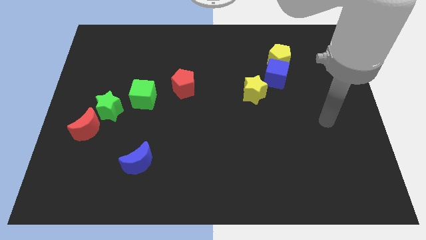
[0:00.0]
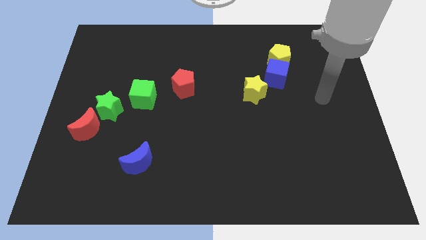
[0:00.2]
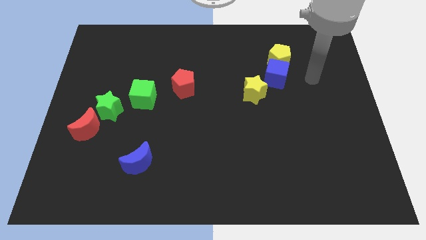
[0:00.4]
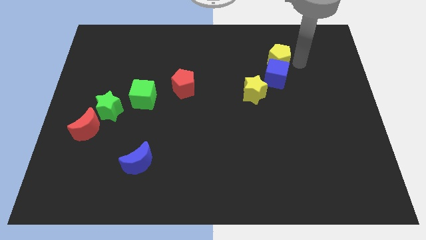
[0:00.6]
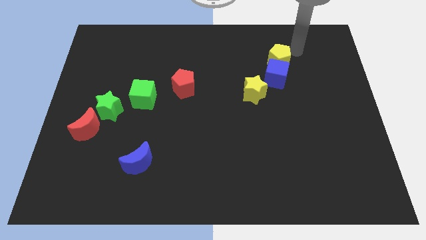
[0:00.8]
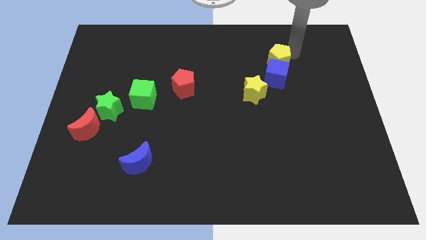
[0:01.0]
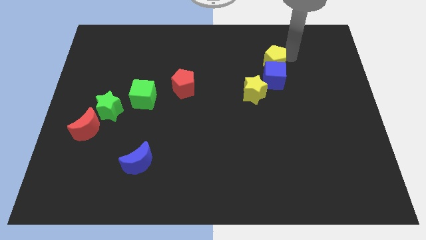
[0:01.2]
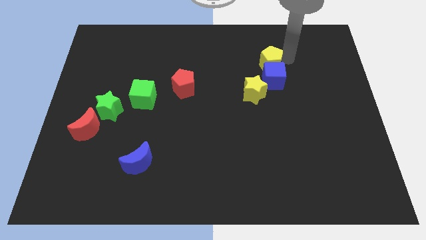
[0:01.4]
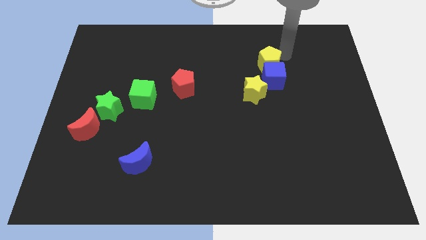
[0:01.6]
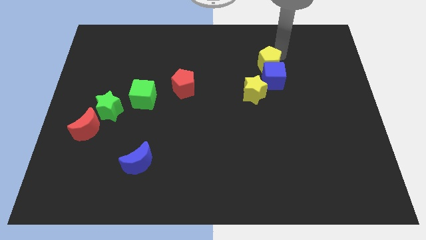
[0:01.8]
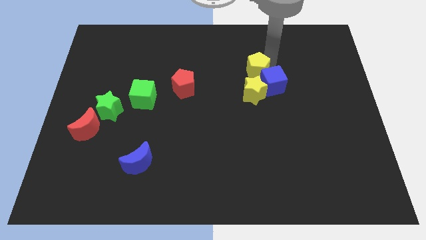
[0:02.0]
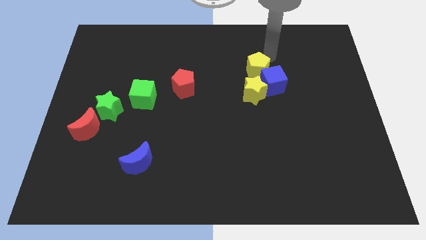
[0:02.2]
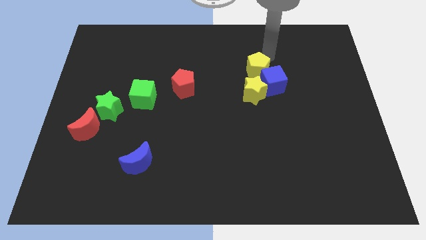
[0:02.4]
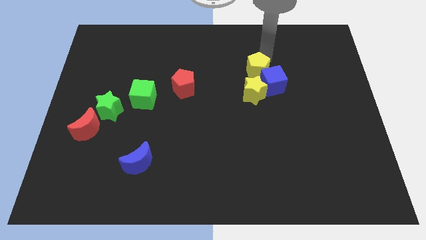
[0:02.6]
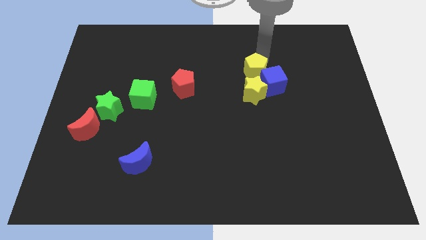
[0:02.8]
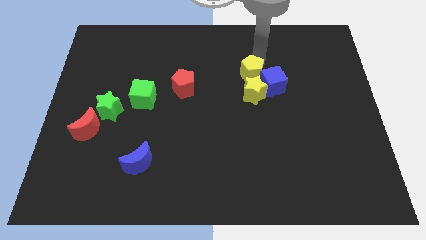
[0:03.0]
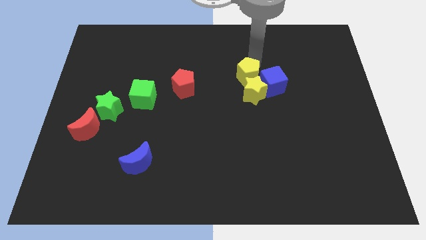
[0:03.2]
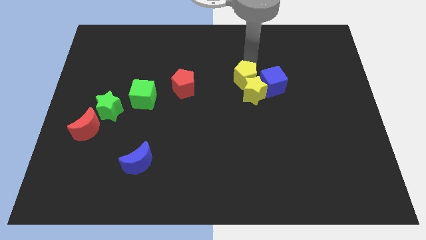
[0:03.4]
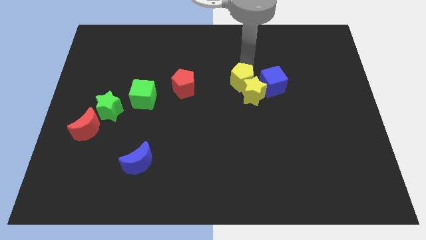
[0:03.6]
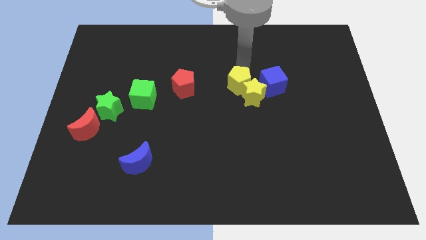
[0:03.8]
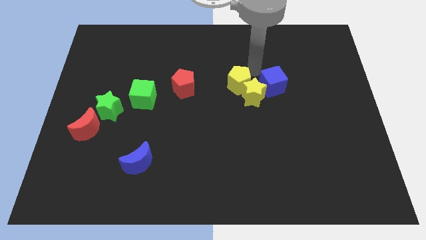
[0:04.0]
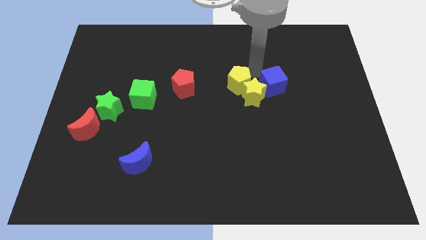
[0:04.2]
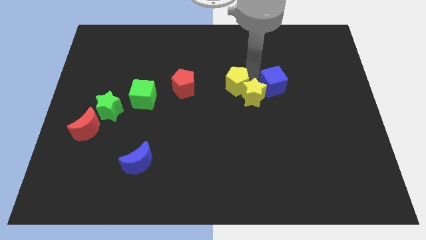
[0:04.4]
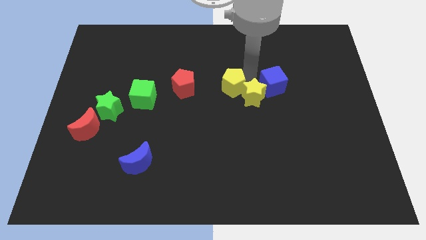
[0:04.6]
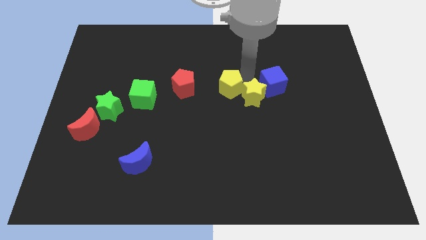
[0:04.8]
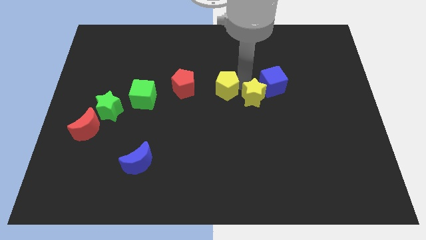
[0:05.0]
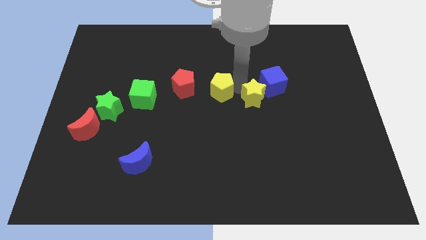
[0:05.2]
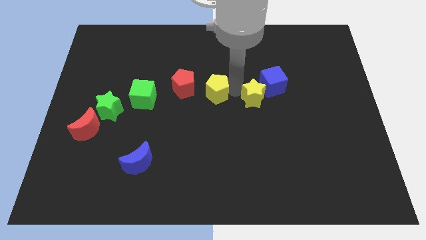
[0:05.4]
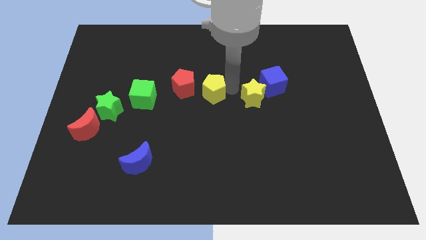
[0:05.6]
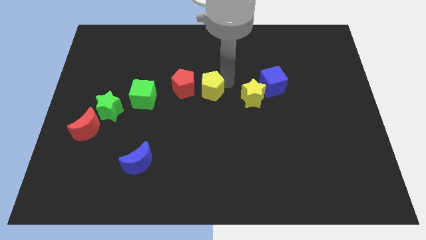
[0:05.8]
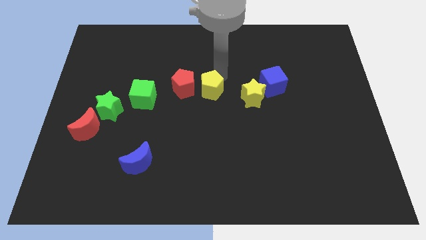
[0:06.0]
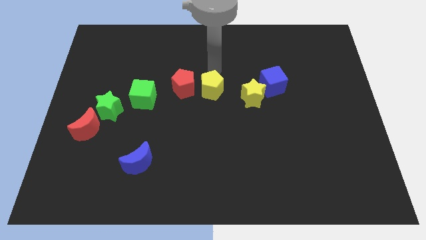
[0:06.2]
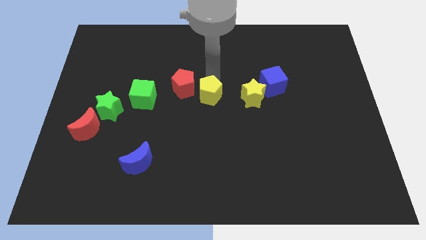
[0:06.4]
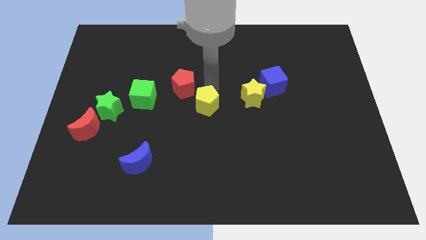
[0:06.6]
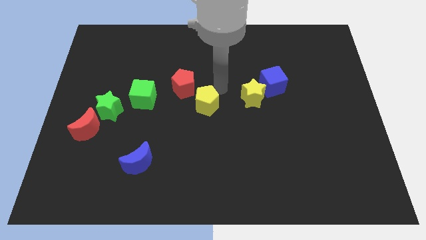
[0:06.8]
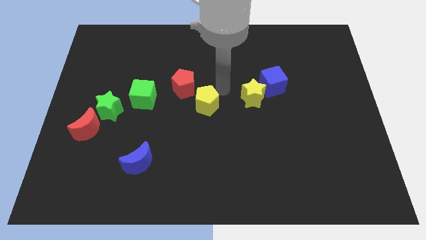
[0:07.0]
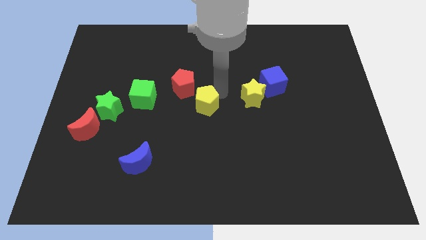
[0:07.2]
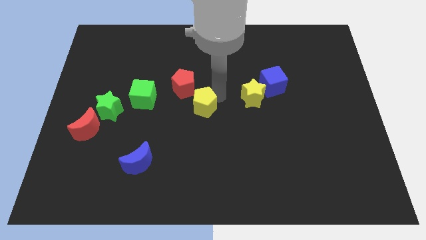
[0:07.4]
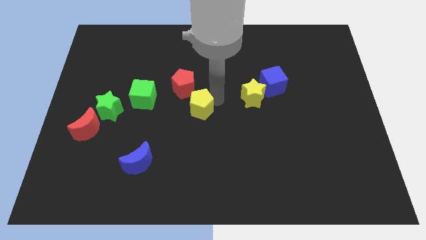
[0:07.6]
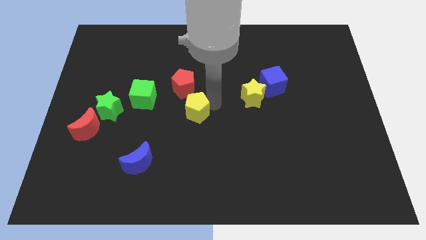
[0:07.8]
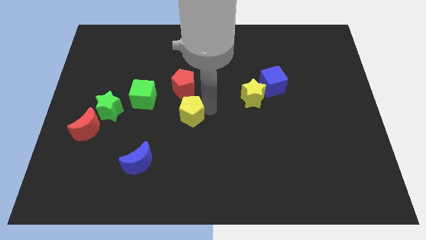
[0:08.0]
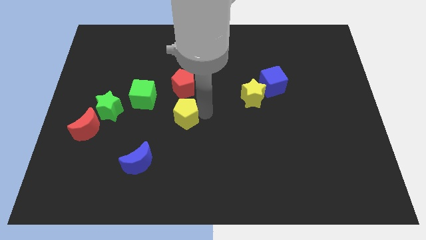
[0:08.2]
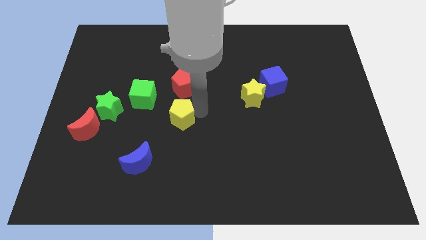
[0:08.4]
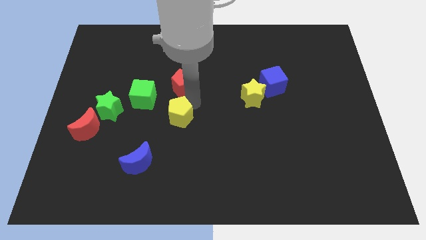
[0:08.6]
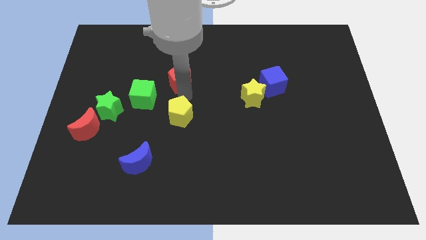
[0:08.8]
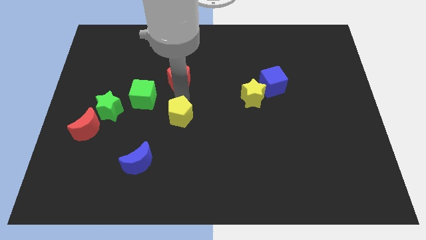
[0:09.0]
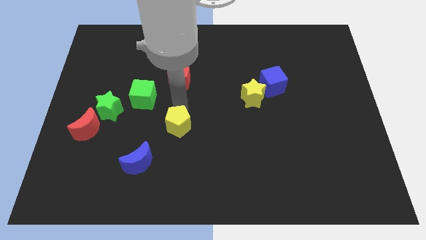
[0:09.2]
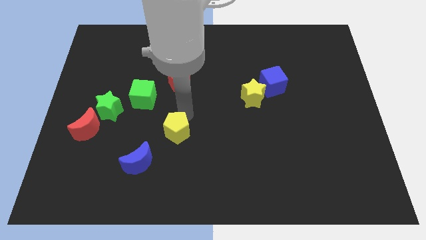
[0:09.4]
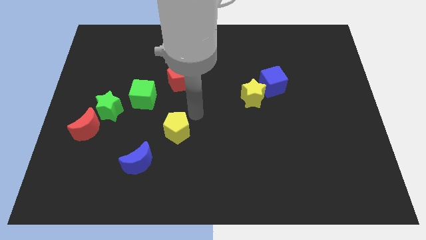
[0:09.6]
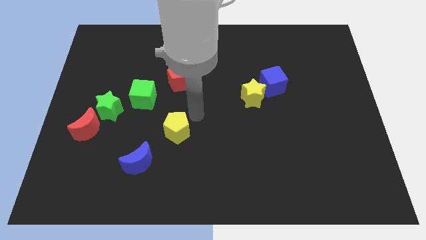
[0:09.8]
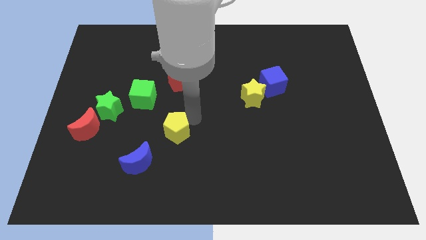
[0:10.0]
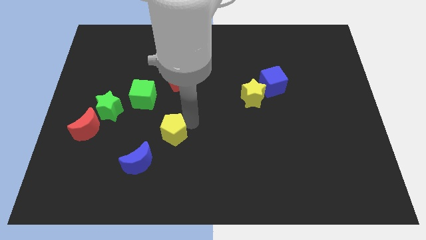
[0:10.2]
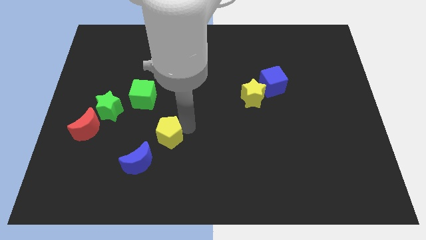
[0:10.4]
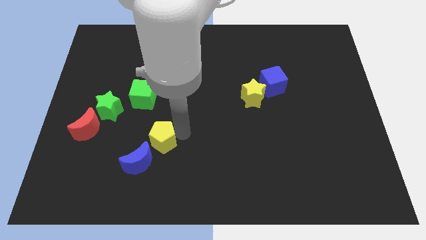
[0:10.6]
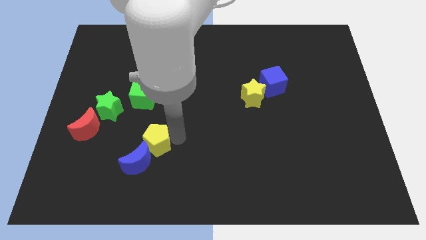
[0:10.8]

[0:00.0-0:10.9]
move the yellow pentagon close to the blue moon

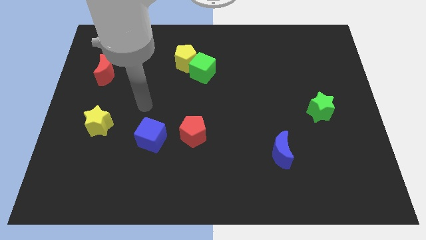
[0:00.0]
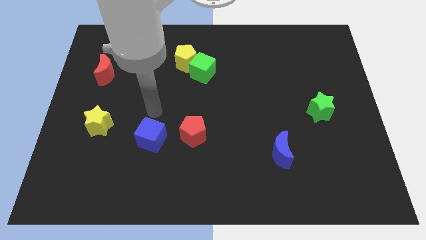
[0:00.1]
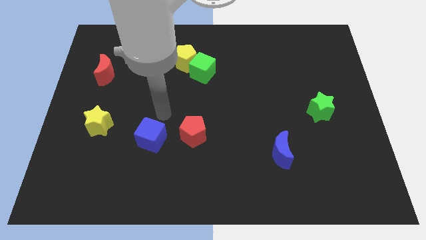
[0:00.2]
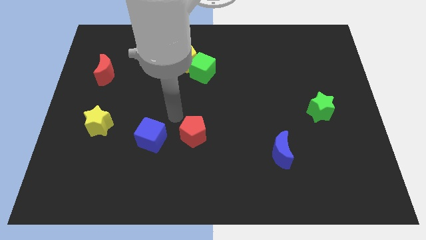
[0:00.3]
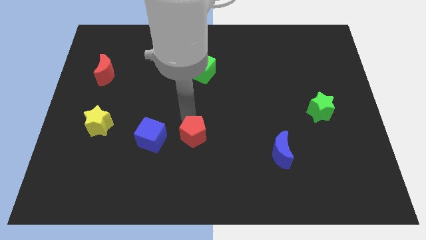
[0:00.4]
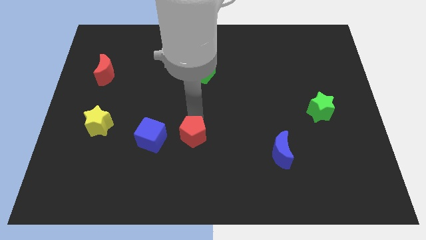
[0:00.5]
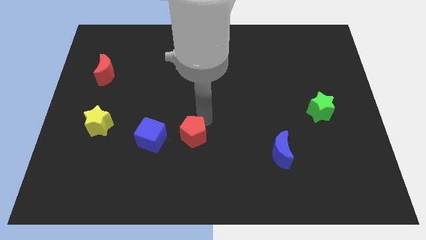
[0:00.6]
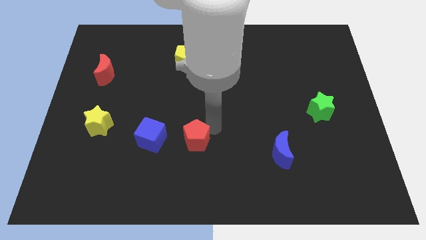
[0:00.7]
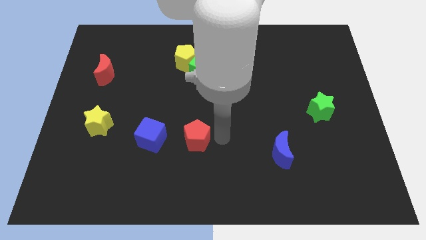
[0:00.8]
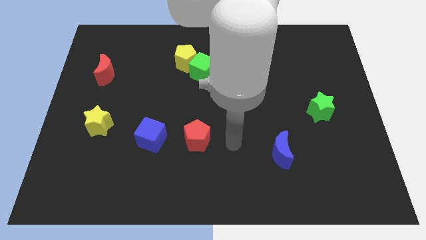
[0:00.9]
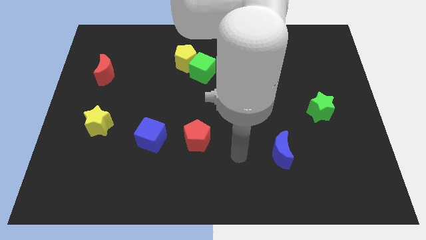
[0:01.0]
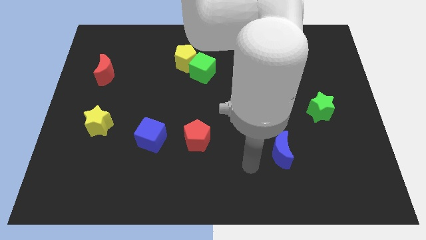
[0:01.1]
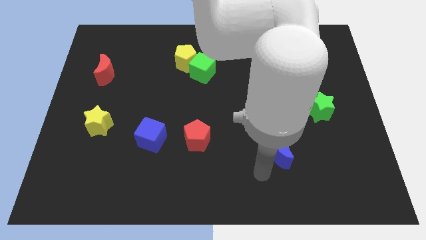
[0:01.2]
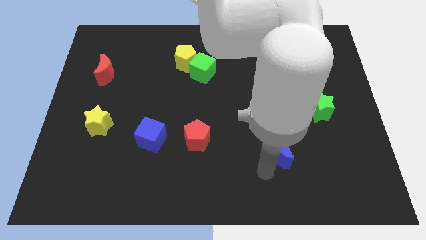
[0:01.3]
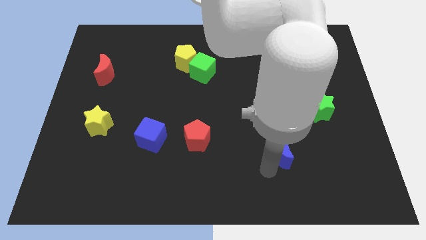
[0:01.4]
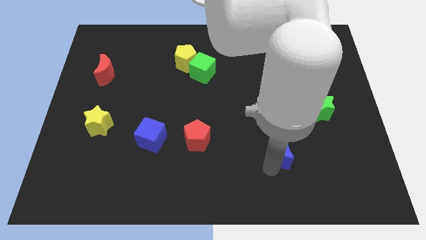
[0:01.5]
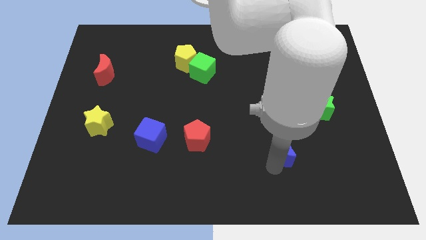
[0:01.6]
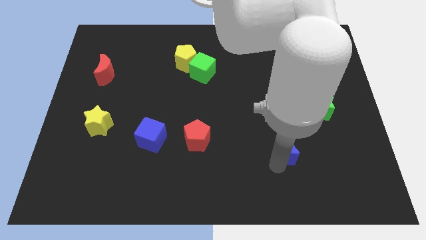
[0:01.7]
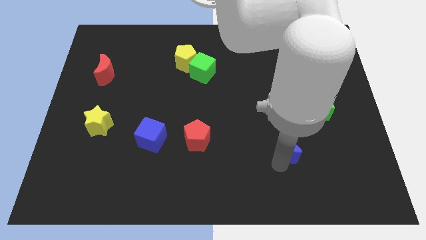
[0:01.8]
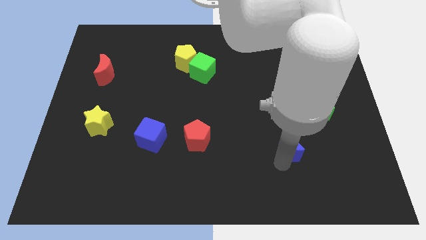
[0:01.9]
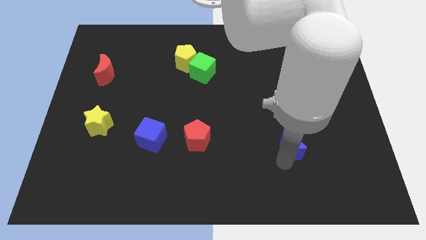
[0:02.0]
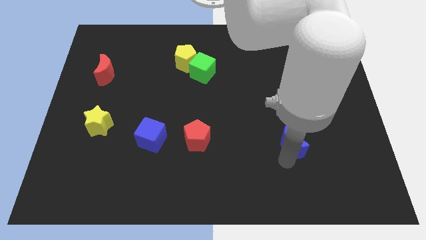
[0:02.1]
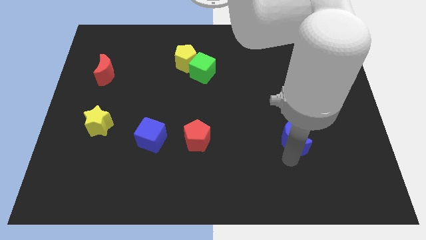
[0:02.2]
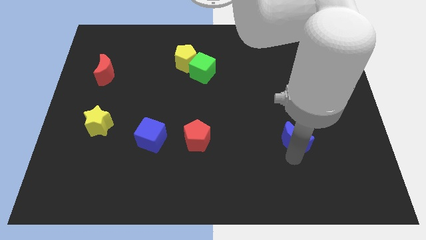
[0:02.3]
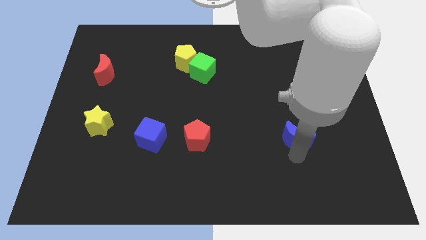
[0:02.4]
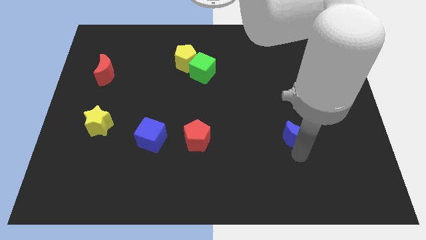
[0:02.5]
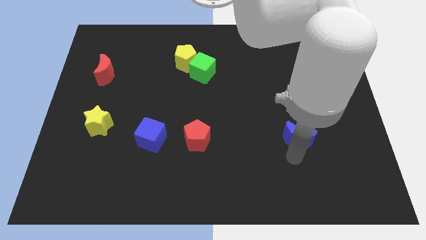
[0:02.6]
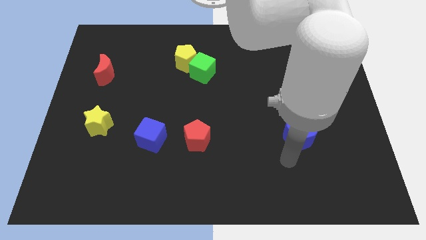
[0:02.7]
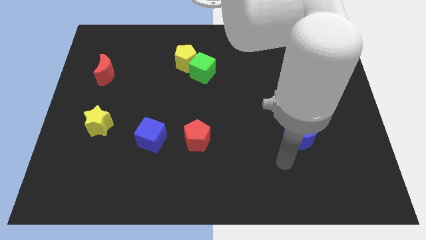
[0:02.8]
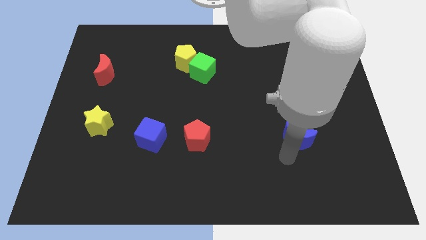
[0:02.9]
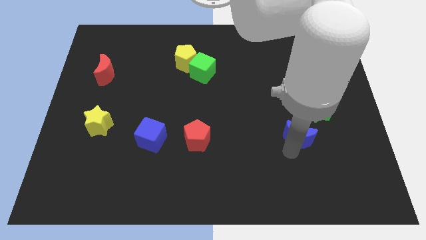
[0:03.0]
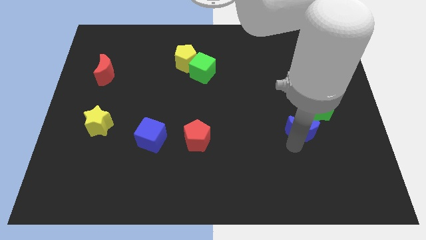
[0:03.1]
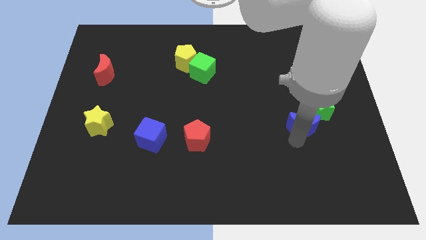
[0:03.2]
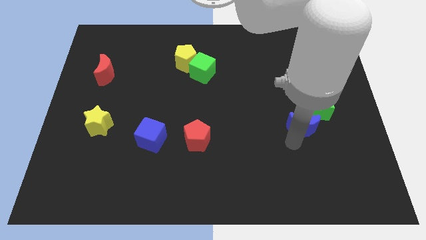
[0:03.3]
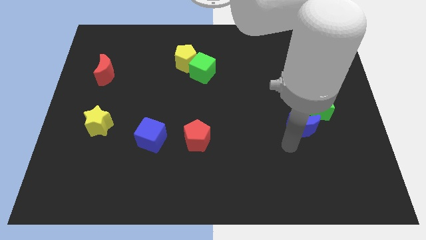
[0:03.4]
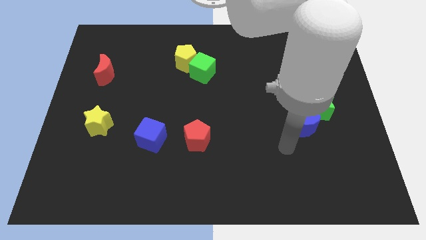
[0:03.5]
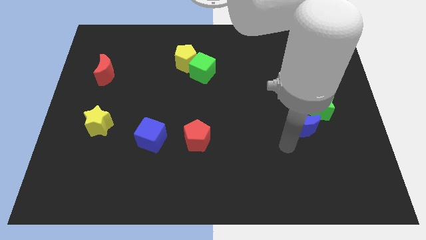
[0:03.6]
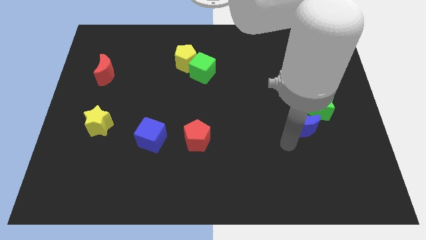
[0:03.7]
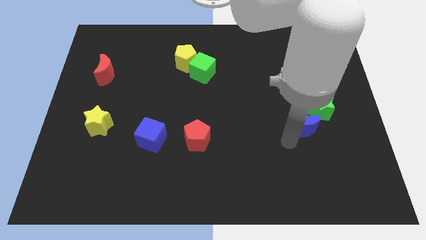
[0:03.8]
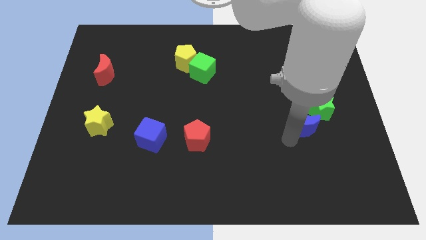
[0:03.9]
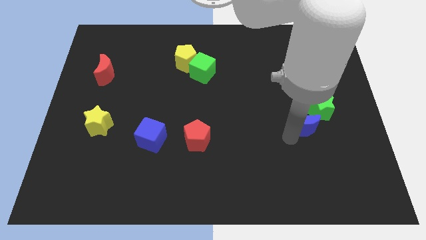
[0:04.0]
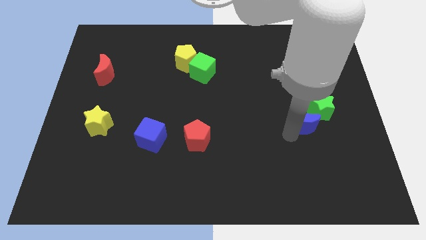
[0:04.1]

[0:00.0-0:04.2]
slide the blue moon close to the green star
